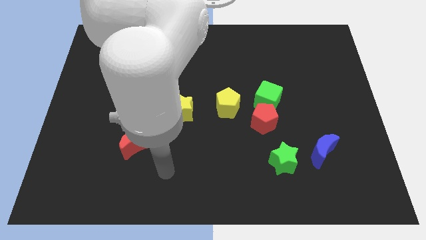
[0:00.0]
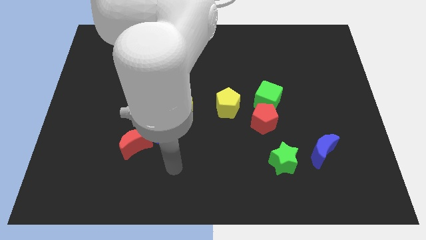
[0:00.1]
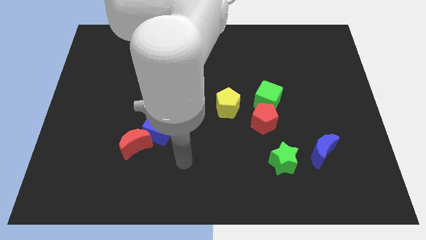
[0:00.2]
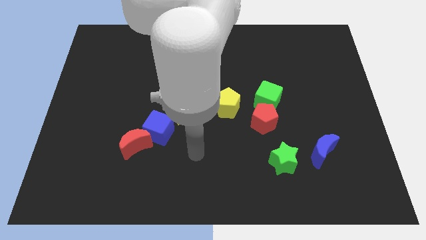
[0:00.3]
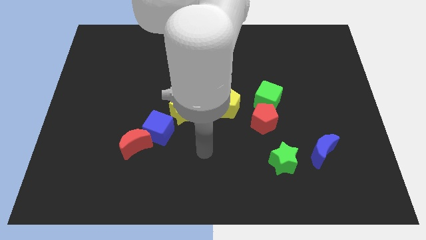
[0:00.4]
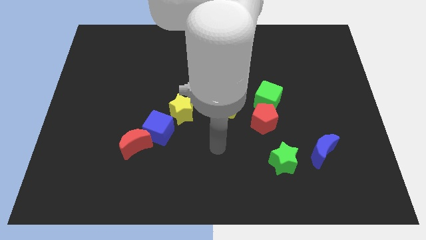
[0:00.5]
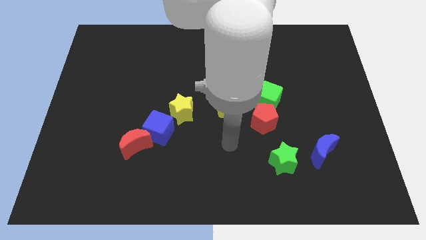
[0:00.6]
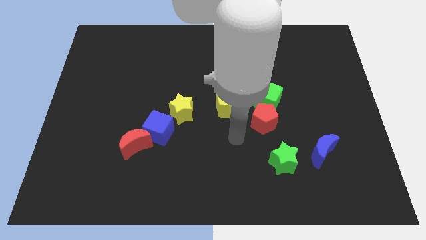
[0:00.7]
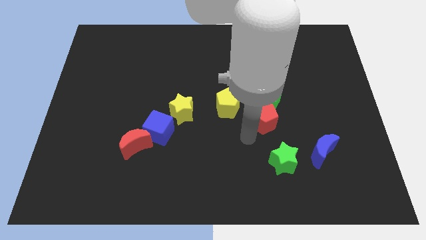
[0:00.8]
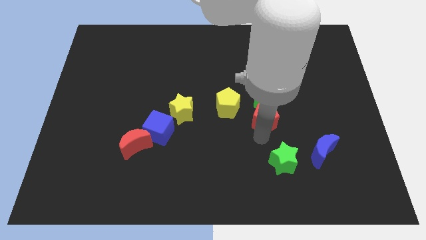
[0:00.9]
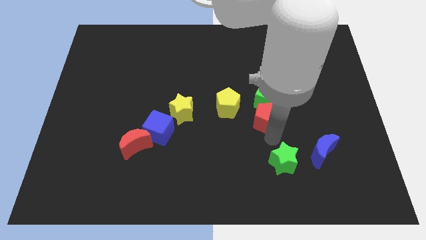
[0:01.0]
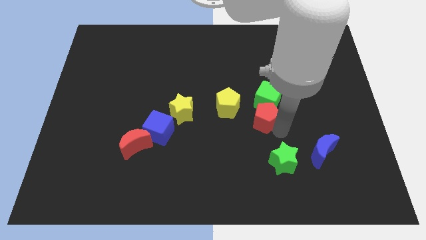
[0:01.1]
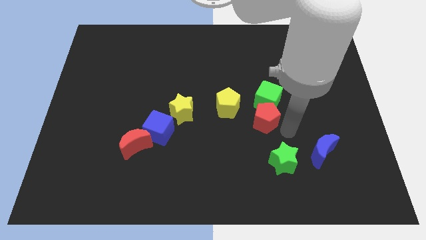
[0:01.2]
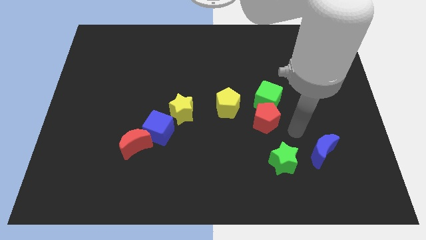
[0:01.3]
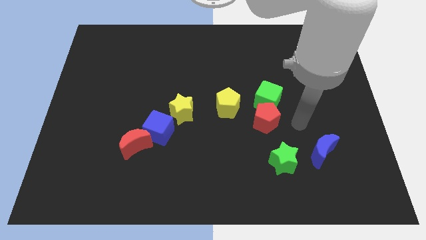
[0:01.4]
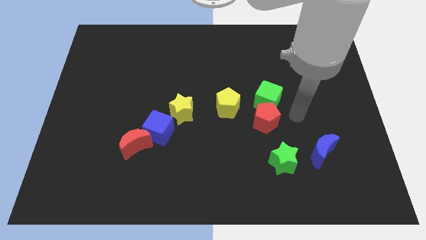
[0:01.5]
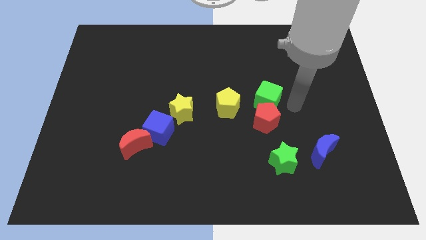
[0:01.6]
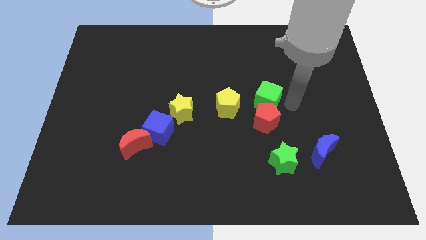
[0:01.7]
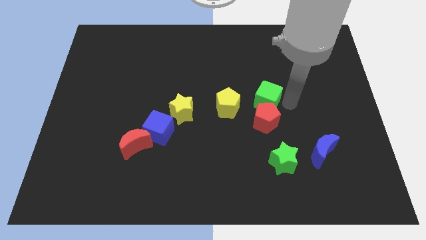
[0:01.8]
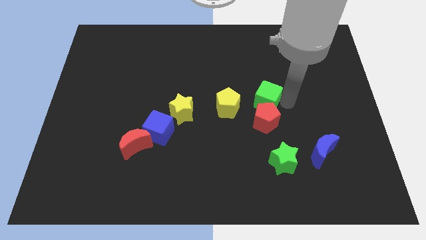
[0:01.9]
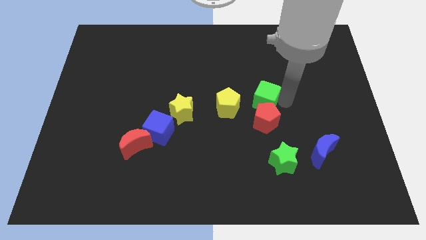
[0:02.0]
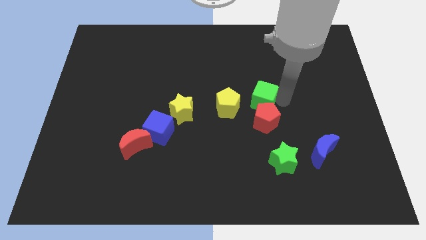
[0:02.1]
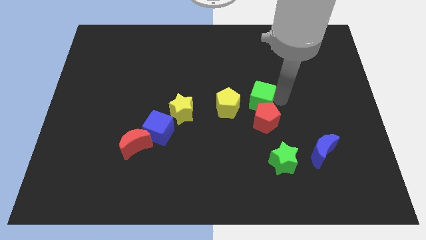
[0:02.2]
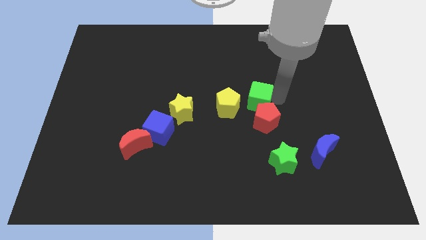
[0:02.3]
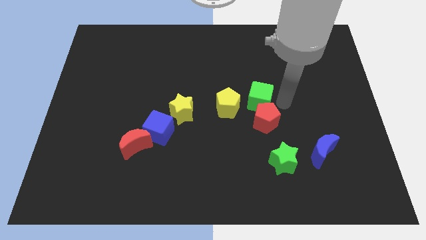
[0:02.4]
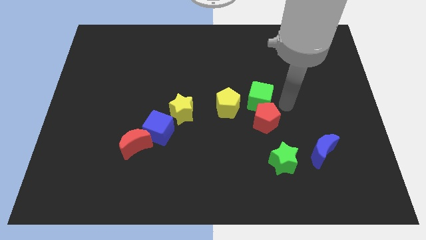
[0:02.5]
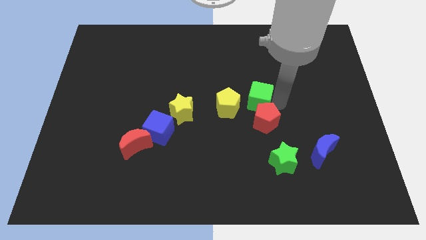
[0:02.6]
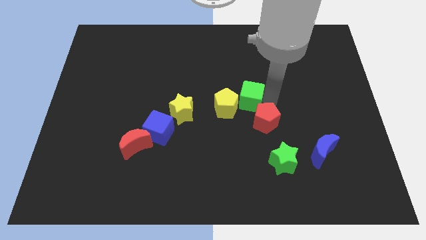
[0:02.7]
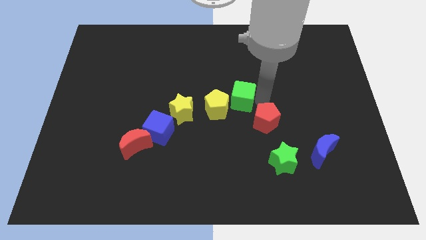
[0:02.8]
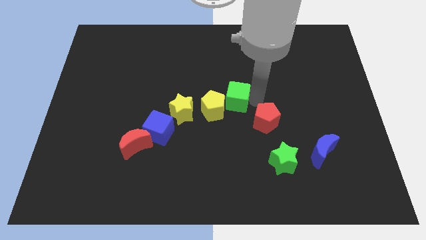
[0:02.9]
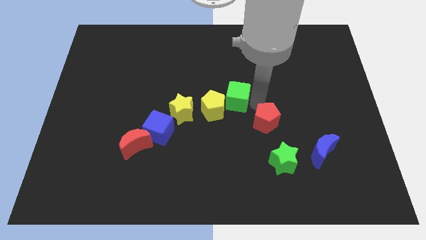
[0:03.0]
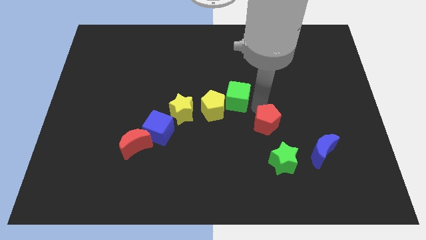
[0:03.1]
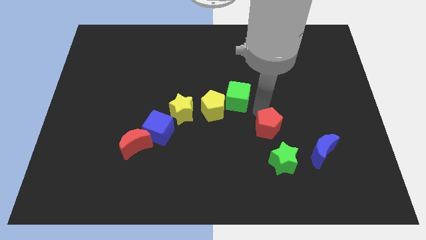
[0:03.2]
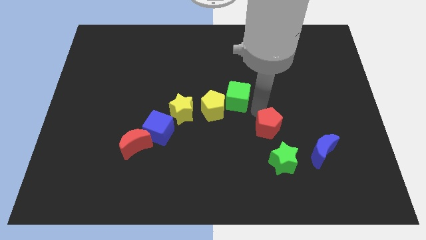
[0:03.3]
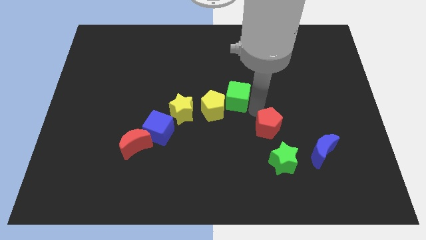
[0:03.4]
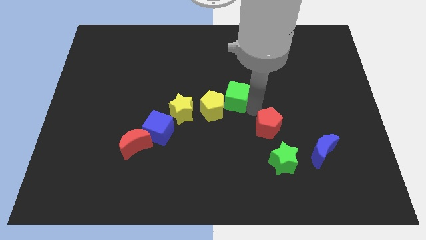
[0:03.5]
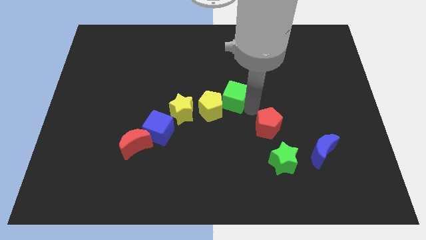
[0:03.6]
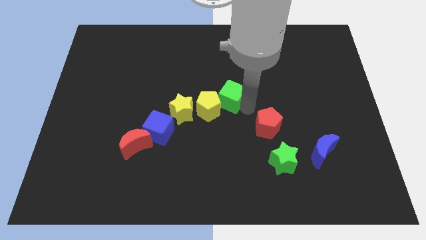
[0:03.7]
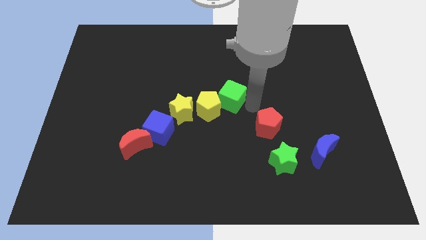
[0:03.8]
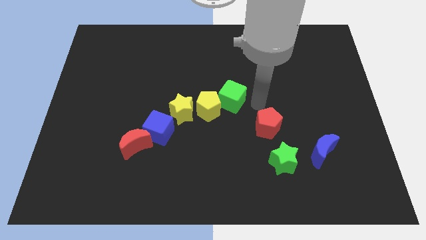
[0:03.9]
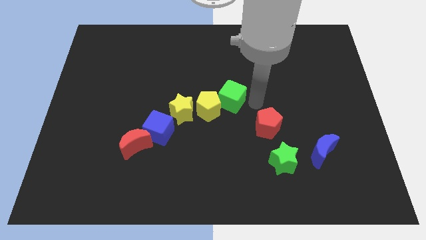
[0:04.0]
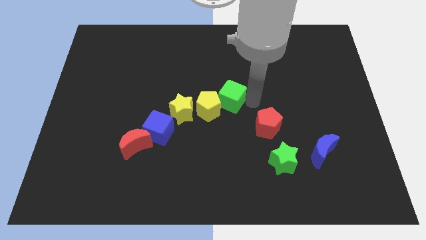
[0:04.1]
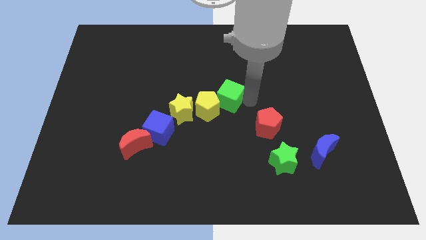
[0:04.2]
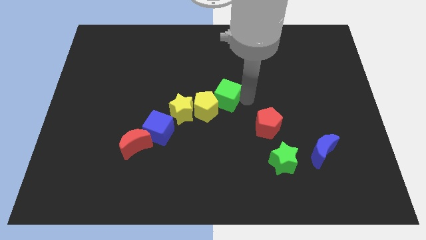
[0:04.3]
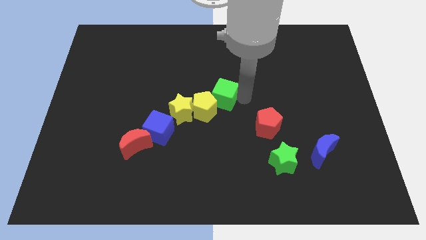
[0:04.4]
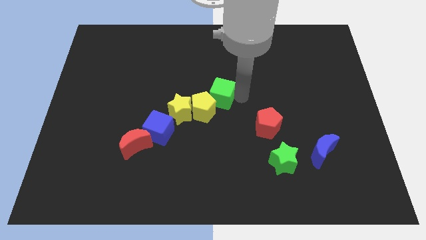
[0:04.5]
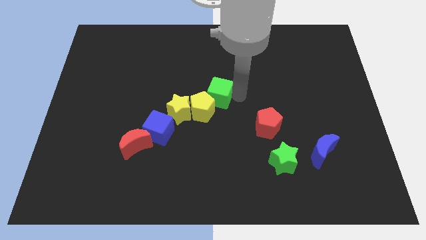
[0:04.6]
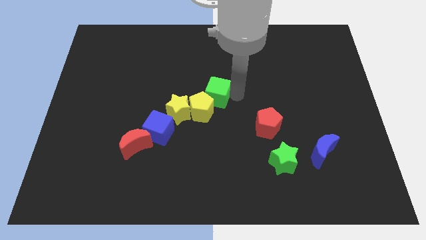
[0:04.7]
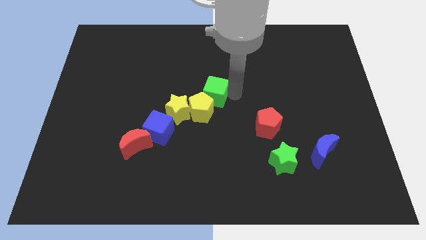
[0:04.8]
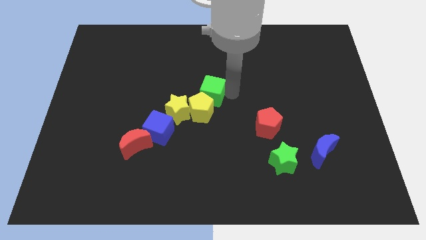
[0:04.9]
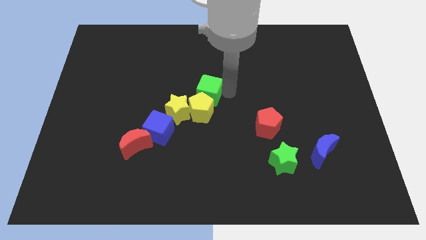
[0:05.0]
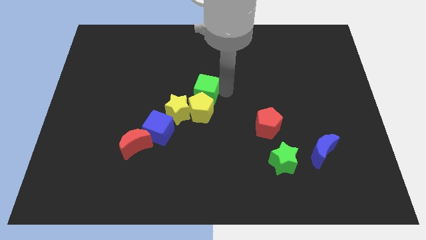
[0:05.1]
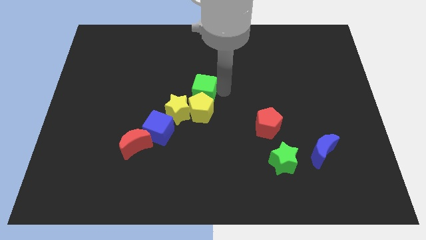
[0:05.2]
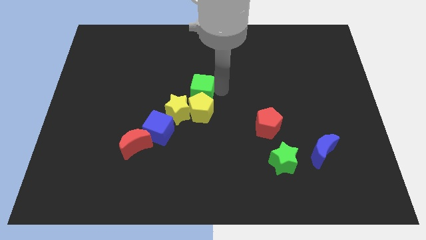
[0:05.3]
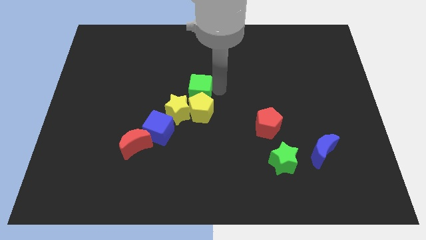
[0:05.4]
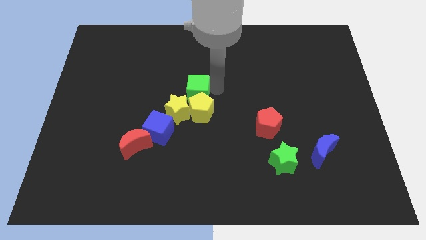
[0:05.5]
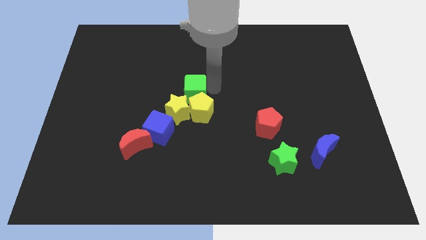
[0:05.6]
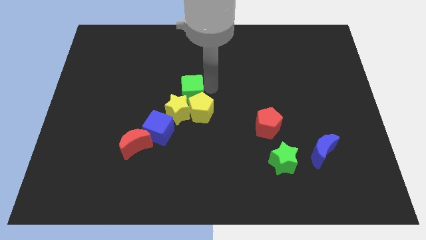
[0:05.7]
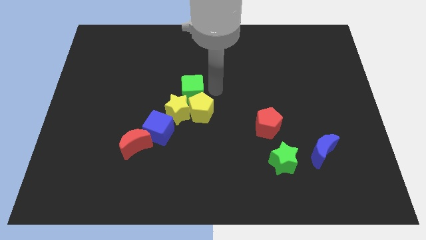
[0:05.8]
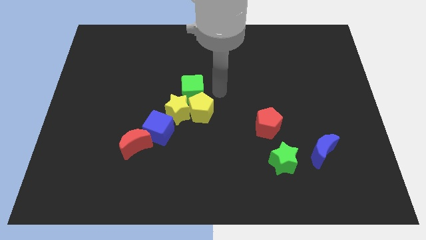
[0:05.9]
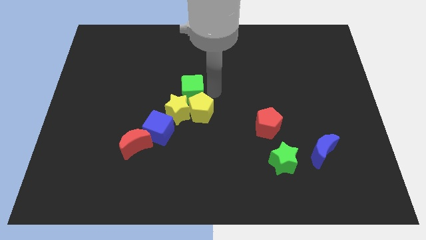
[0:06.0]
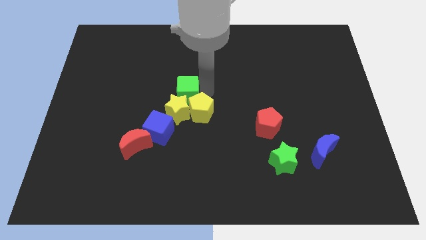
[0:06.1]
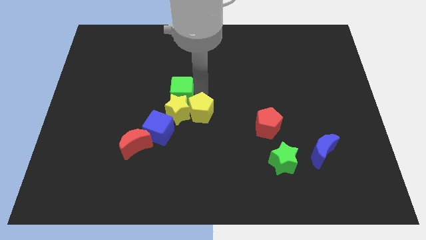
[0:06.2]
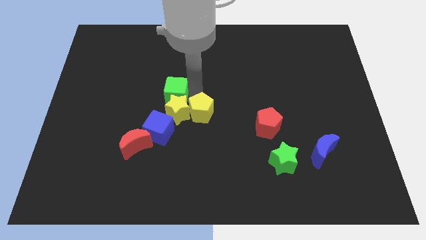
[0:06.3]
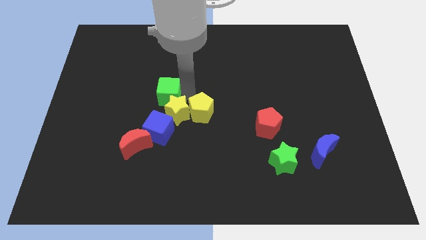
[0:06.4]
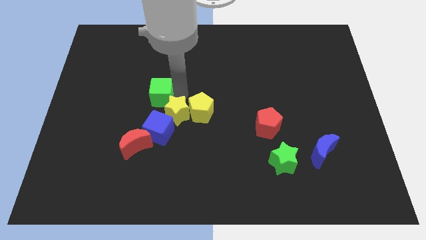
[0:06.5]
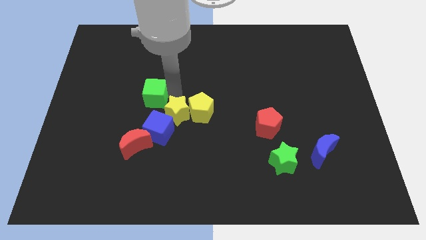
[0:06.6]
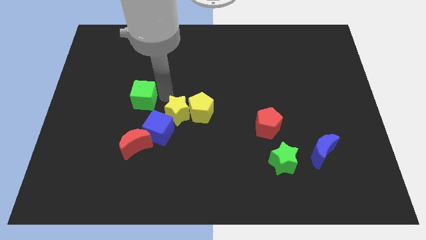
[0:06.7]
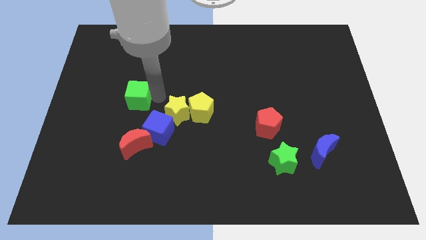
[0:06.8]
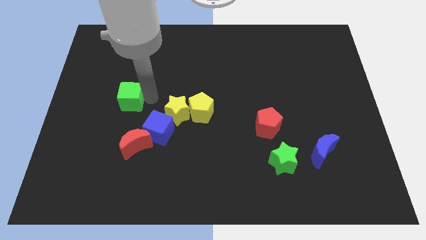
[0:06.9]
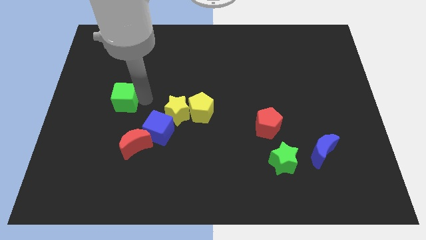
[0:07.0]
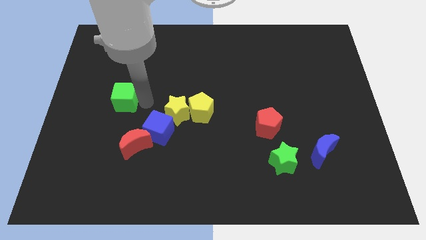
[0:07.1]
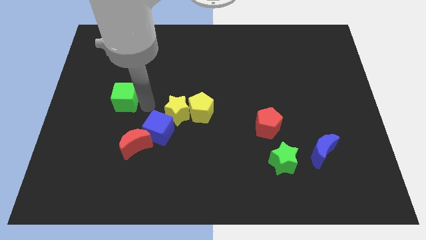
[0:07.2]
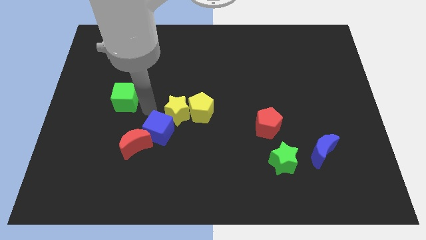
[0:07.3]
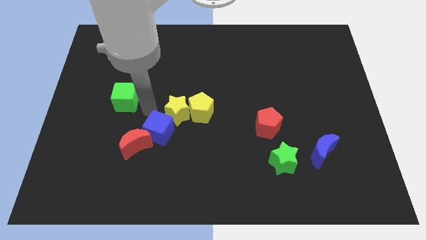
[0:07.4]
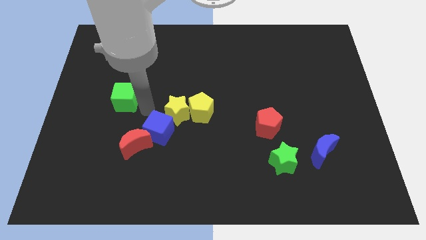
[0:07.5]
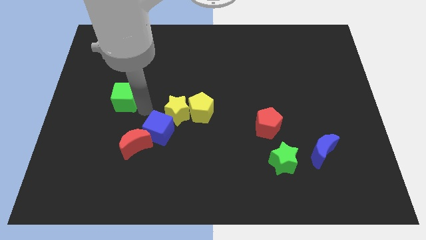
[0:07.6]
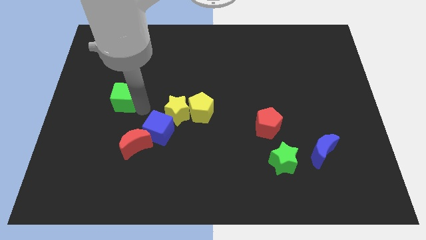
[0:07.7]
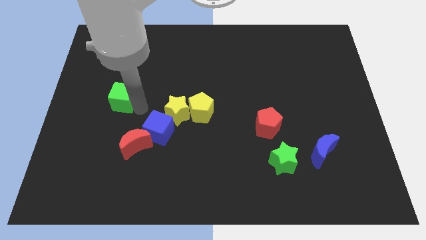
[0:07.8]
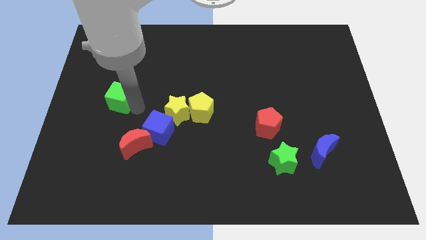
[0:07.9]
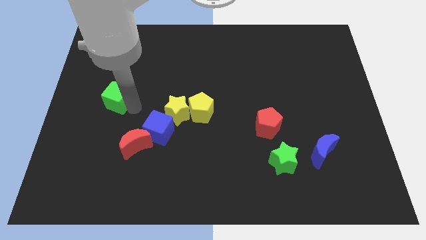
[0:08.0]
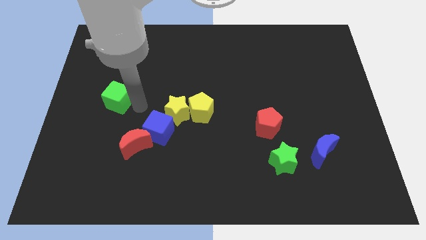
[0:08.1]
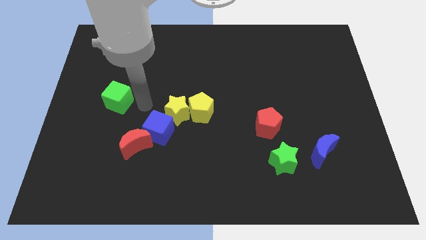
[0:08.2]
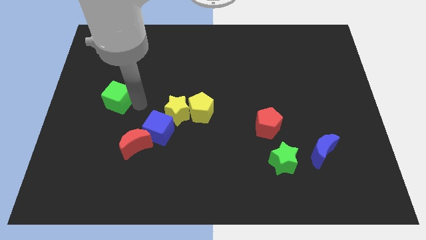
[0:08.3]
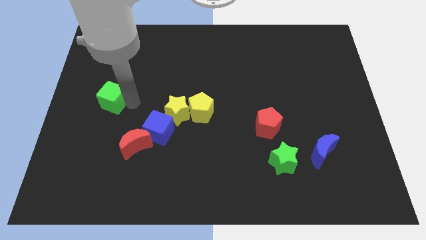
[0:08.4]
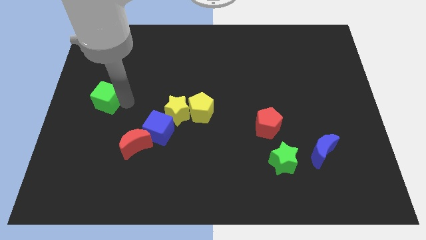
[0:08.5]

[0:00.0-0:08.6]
move the green cube to the center left
